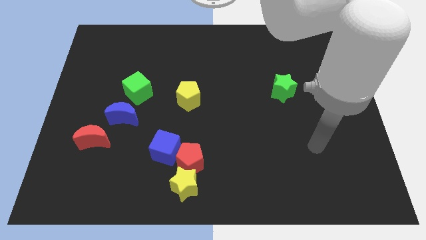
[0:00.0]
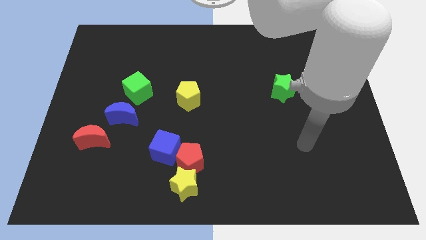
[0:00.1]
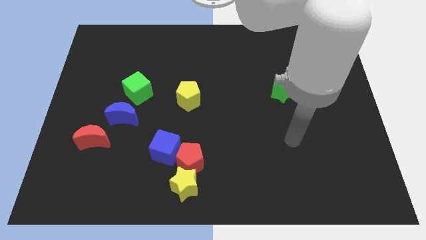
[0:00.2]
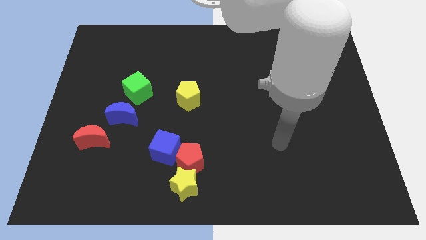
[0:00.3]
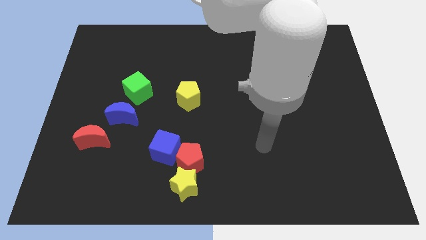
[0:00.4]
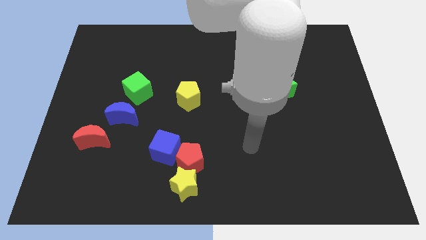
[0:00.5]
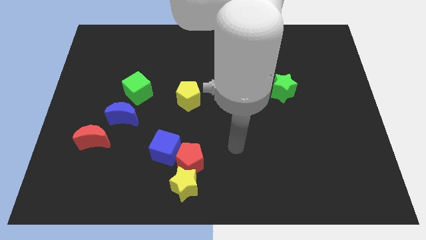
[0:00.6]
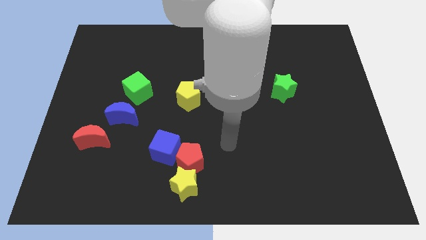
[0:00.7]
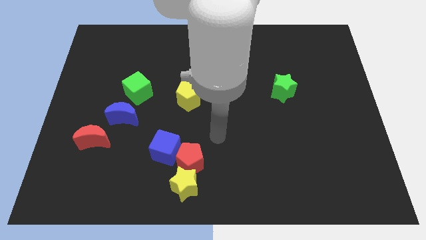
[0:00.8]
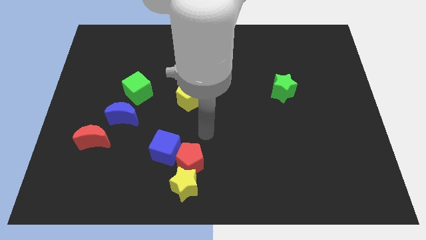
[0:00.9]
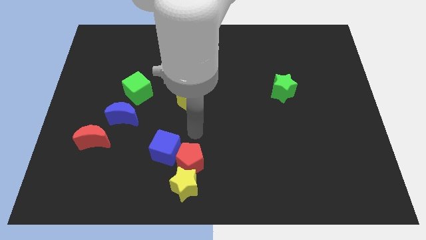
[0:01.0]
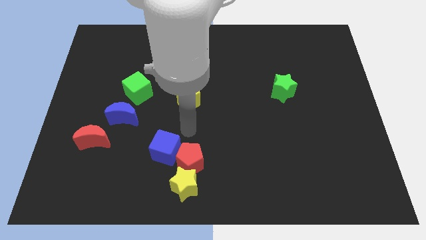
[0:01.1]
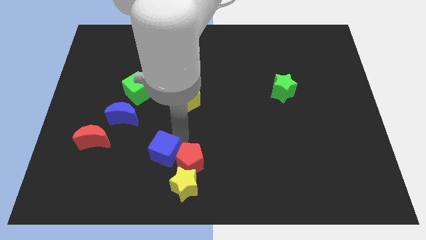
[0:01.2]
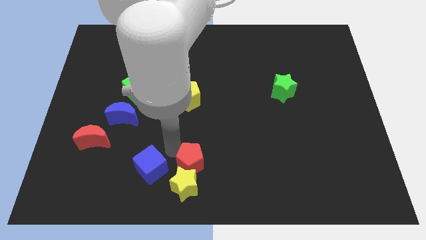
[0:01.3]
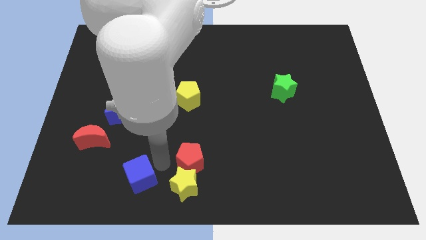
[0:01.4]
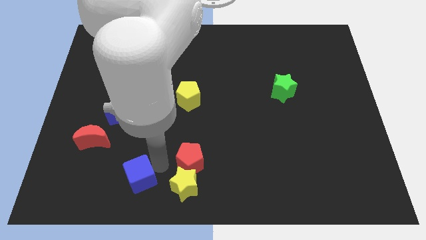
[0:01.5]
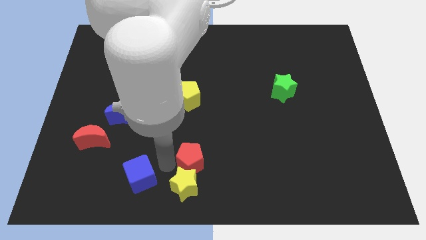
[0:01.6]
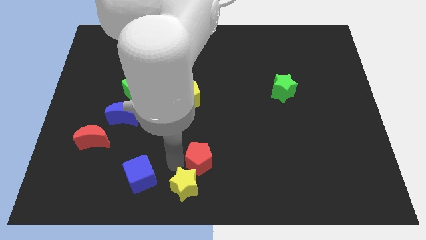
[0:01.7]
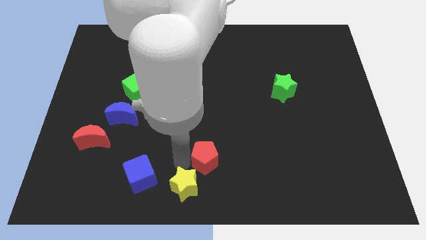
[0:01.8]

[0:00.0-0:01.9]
move the red pentagon away from the yellow star and blue cube

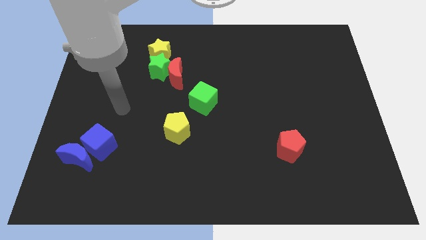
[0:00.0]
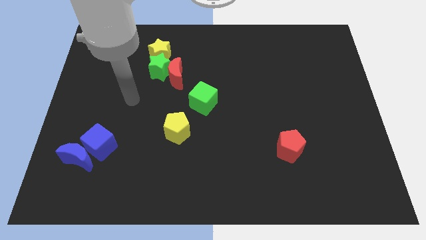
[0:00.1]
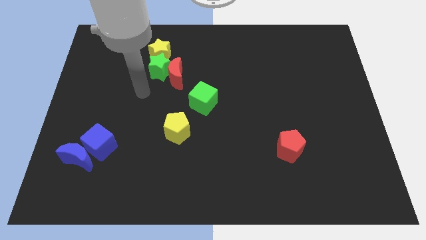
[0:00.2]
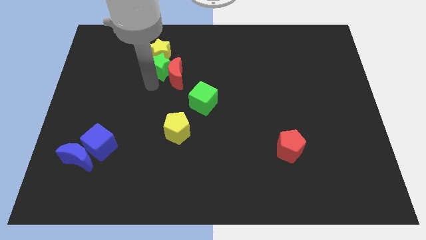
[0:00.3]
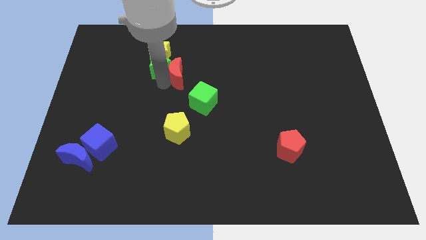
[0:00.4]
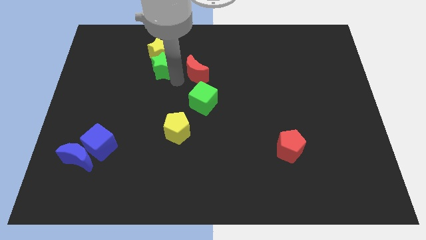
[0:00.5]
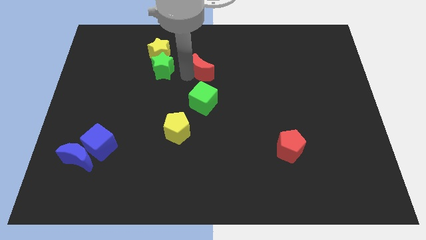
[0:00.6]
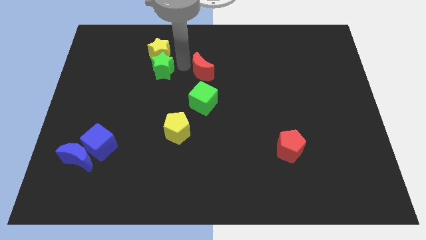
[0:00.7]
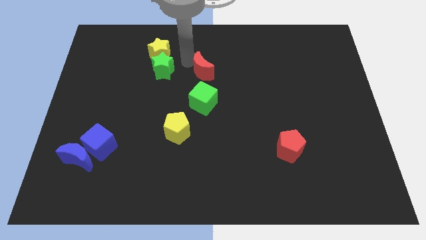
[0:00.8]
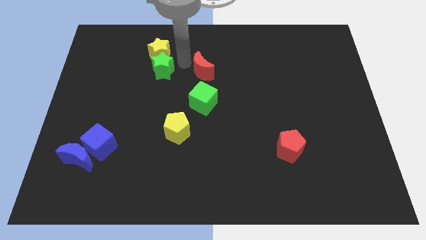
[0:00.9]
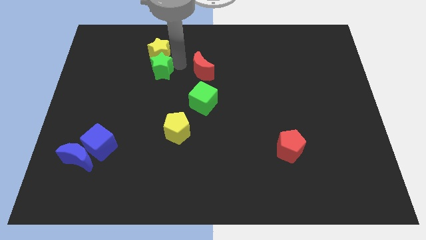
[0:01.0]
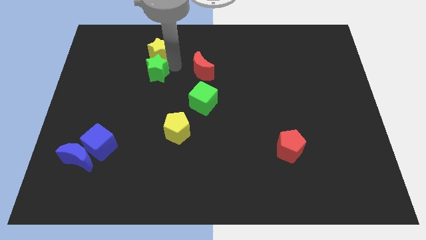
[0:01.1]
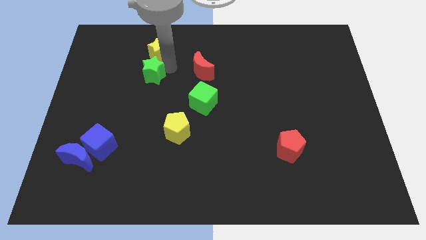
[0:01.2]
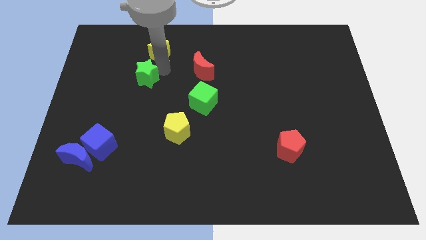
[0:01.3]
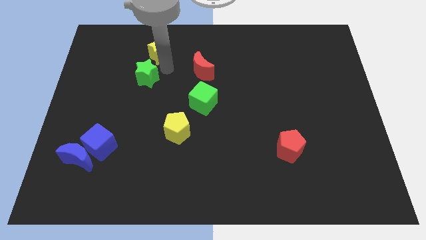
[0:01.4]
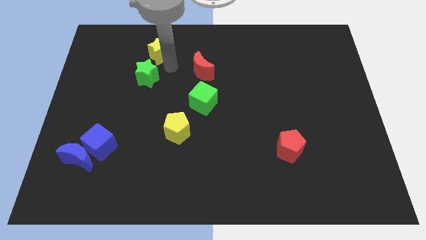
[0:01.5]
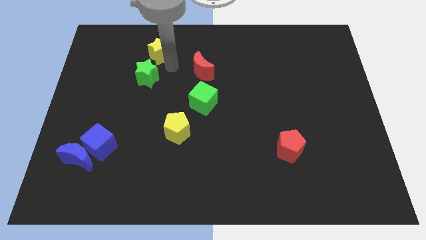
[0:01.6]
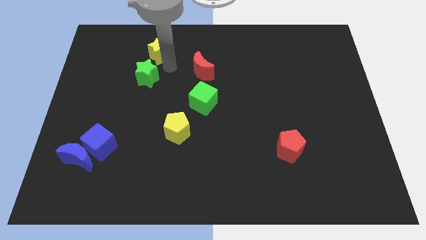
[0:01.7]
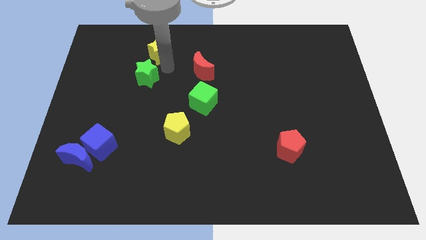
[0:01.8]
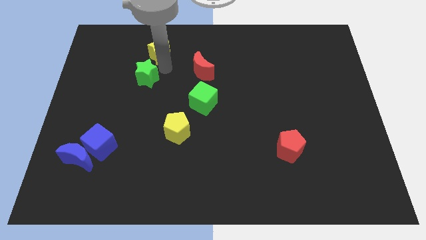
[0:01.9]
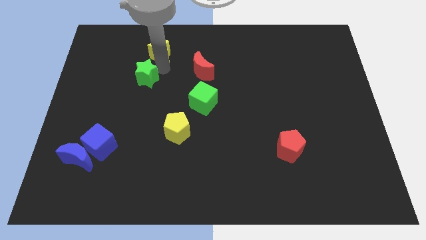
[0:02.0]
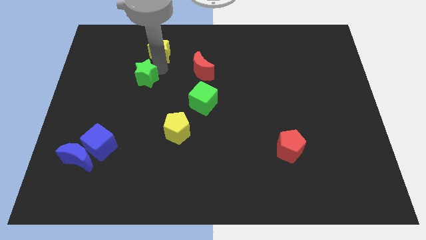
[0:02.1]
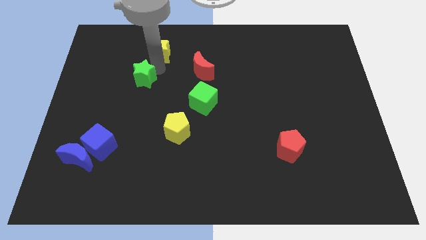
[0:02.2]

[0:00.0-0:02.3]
pull the green star apart from the red moon and yellow star

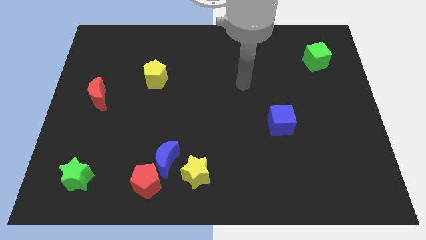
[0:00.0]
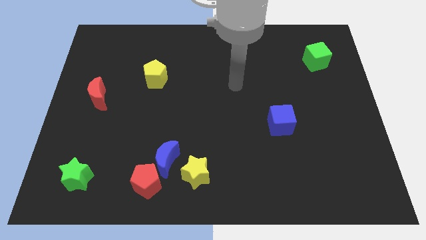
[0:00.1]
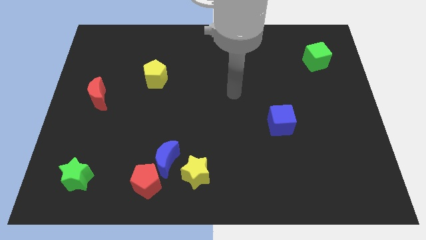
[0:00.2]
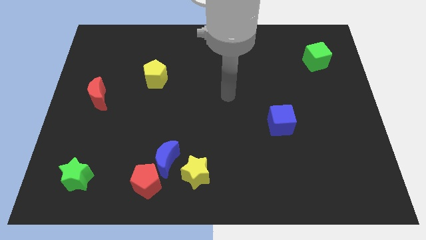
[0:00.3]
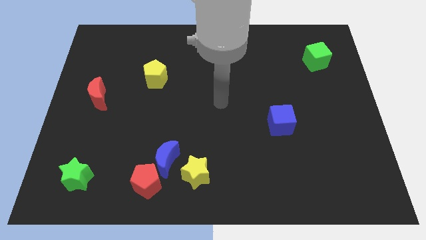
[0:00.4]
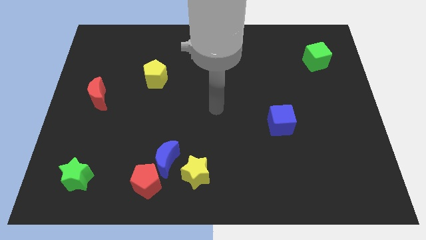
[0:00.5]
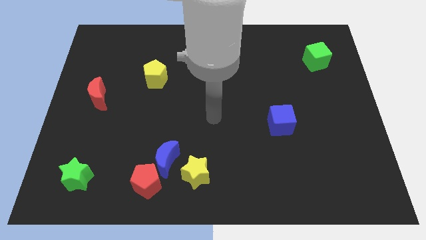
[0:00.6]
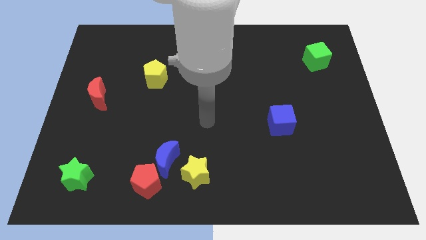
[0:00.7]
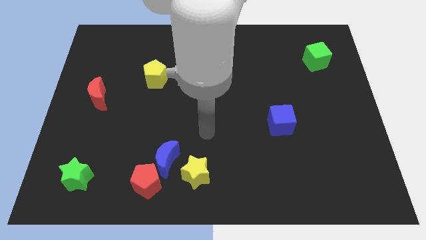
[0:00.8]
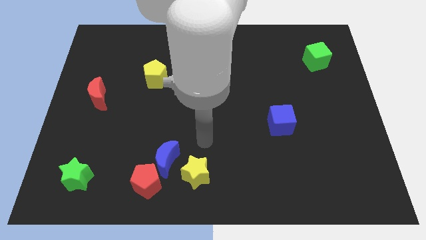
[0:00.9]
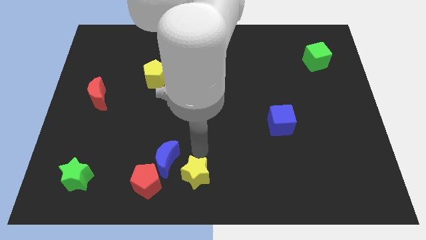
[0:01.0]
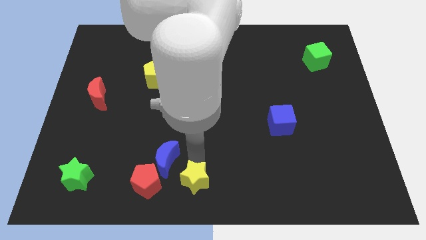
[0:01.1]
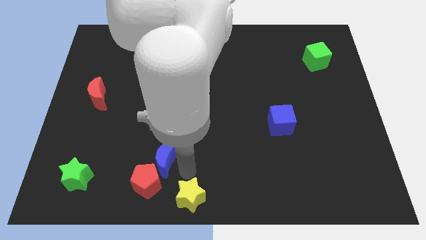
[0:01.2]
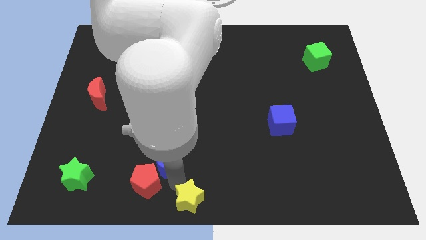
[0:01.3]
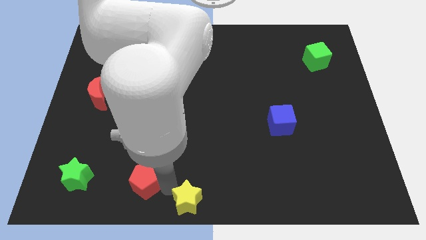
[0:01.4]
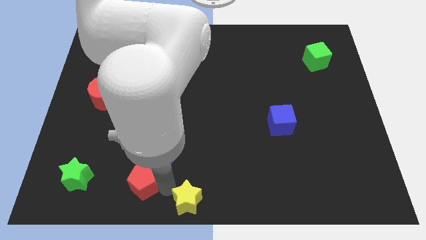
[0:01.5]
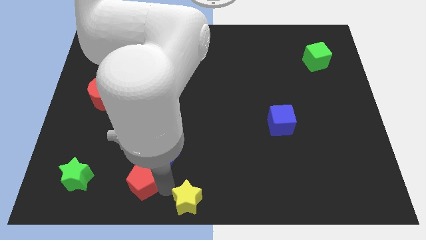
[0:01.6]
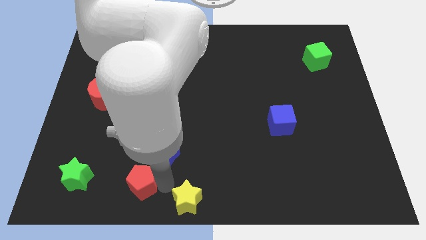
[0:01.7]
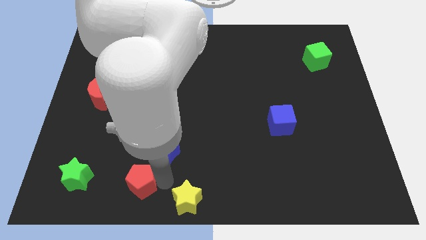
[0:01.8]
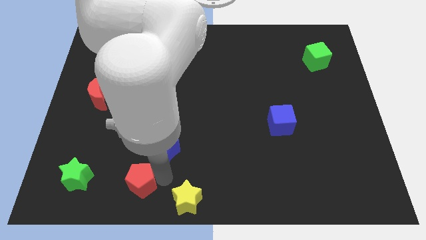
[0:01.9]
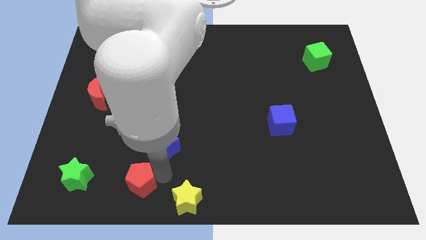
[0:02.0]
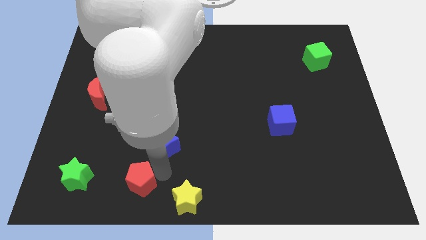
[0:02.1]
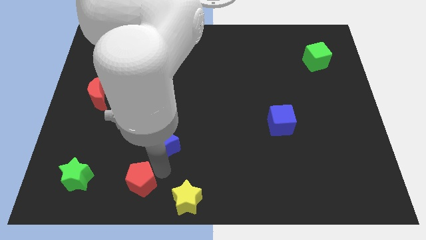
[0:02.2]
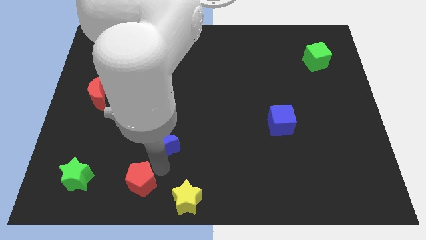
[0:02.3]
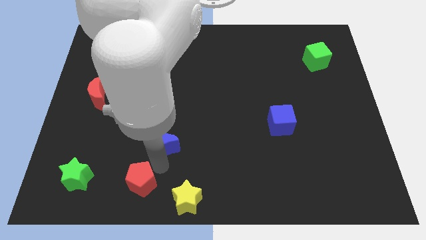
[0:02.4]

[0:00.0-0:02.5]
separate the blue moon from the red pentagon and yellow star

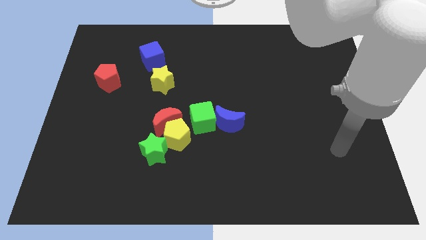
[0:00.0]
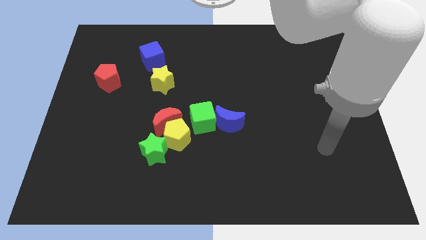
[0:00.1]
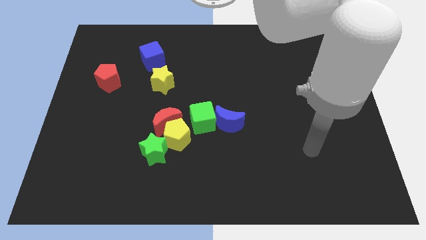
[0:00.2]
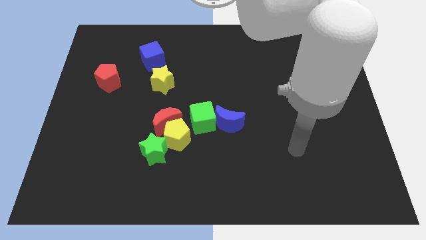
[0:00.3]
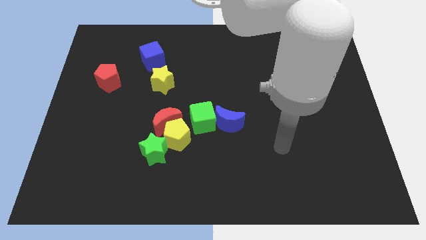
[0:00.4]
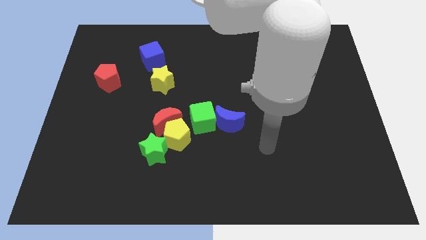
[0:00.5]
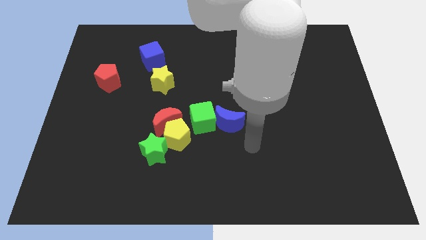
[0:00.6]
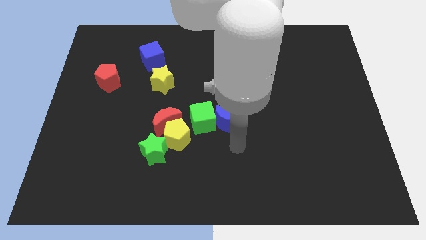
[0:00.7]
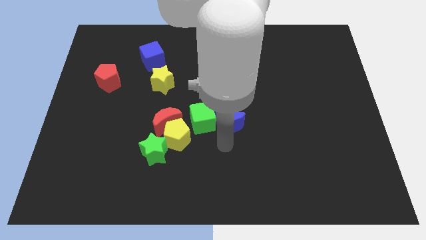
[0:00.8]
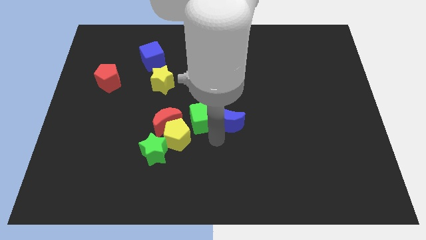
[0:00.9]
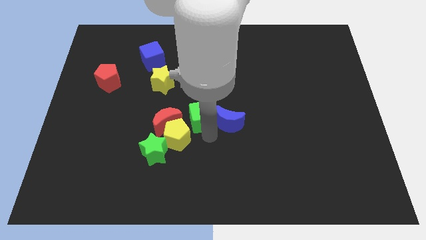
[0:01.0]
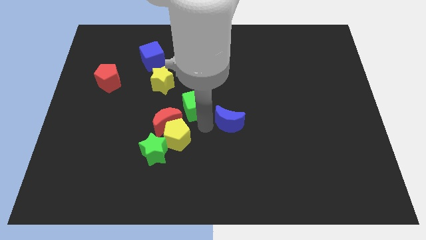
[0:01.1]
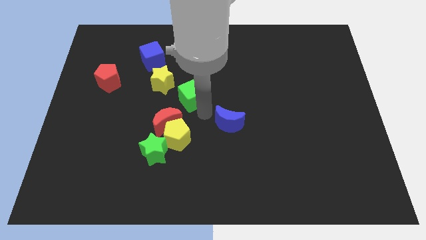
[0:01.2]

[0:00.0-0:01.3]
separate the blue moon from the green cube

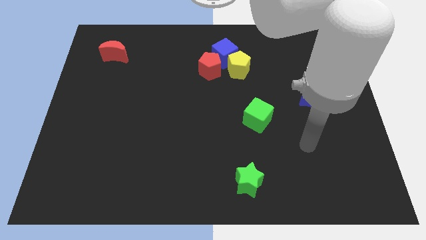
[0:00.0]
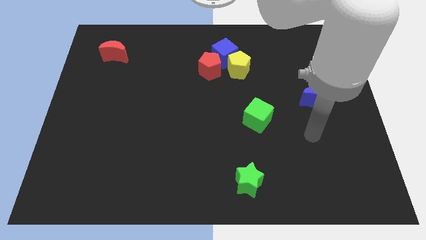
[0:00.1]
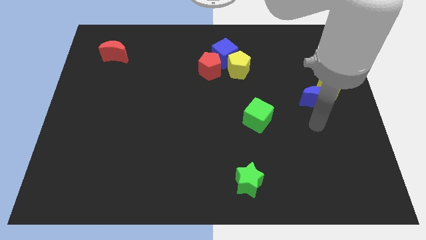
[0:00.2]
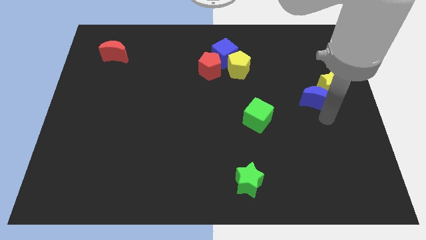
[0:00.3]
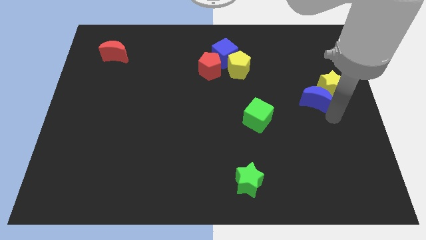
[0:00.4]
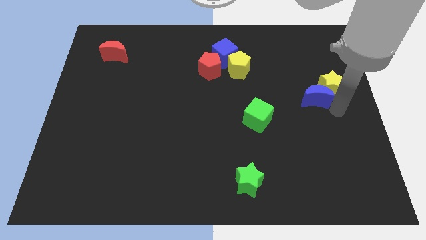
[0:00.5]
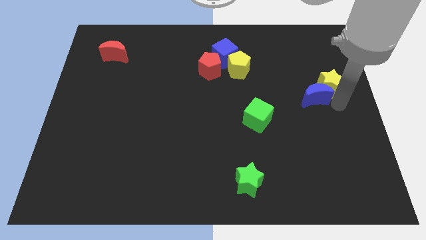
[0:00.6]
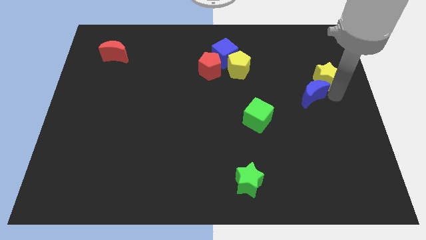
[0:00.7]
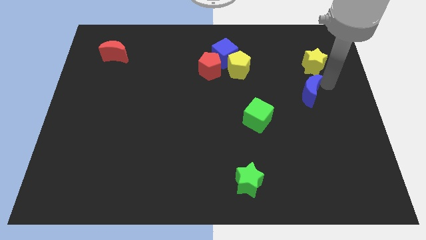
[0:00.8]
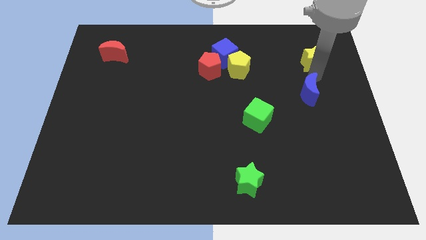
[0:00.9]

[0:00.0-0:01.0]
separate the blue moon from the yellow star

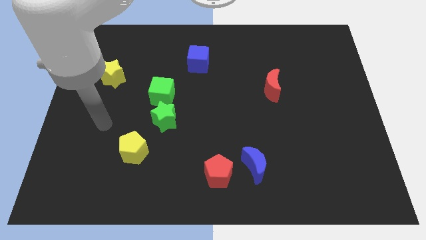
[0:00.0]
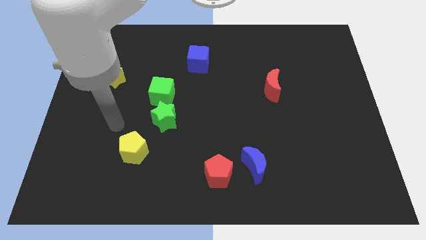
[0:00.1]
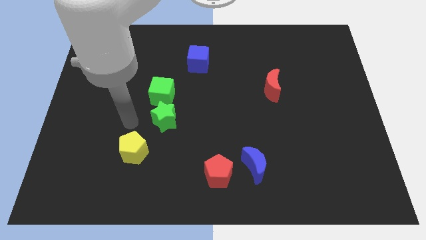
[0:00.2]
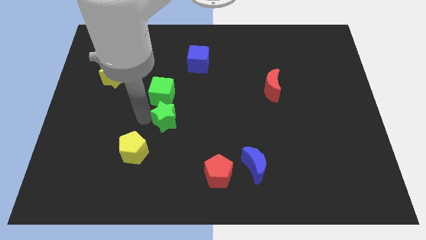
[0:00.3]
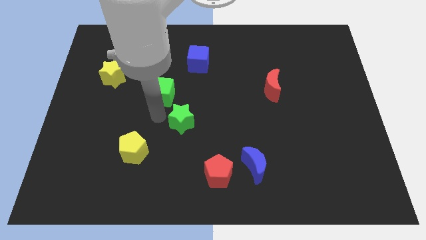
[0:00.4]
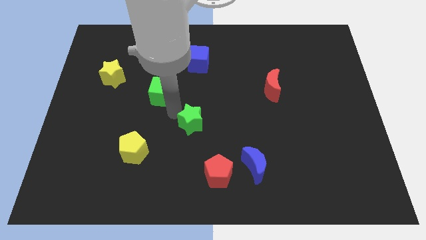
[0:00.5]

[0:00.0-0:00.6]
move the green cube away from the green star
